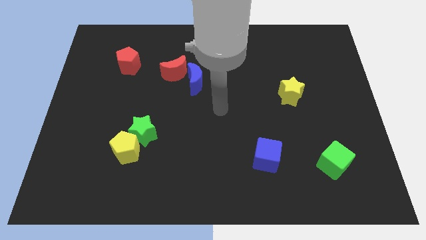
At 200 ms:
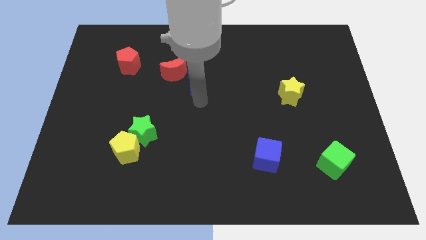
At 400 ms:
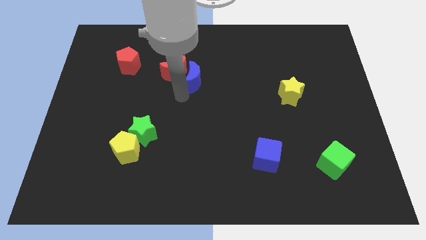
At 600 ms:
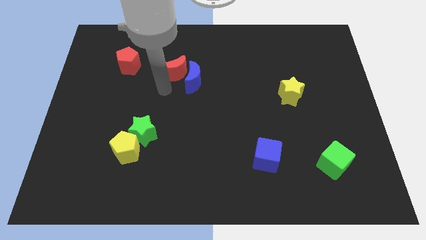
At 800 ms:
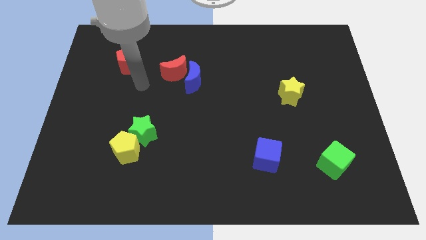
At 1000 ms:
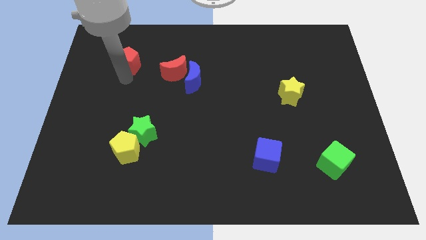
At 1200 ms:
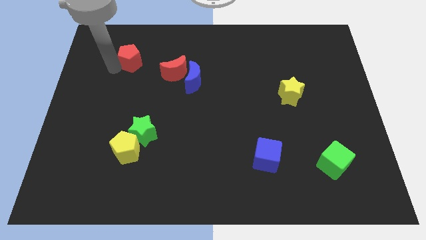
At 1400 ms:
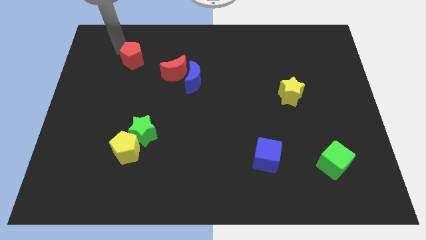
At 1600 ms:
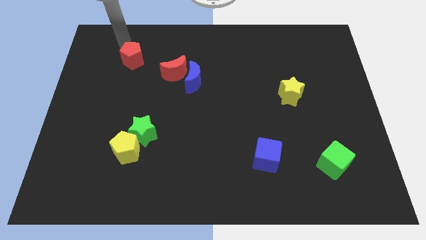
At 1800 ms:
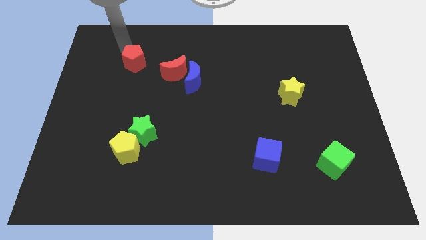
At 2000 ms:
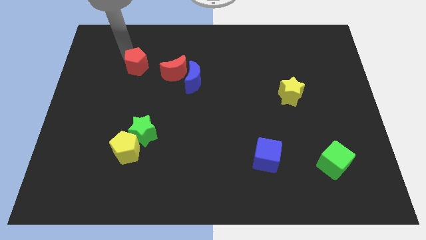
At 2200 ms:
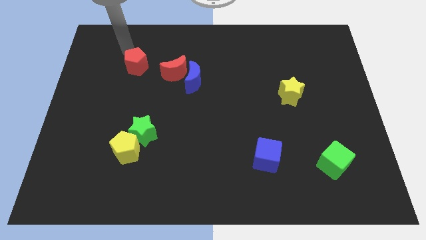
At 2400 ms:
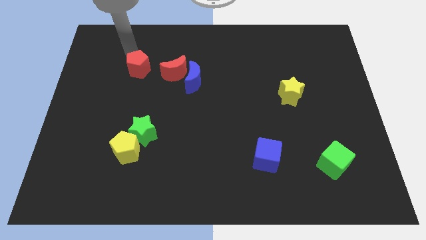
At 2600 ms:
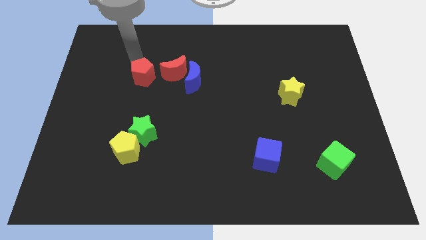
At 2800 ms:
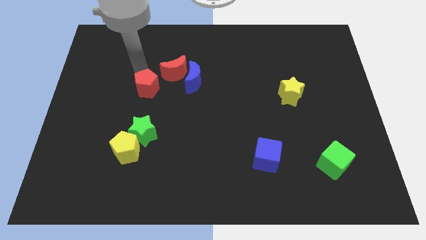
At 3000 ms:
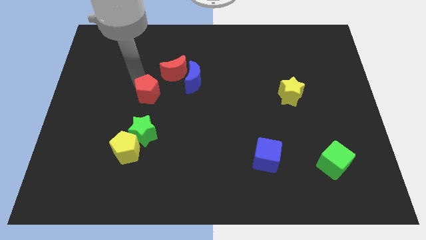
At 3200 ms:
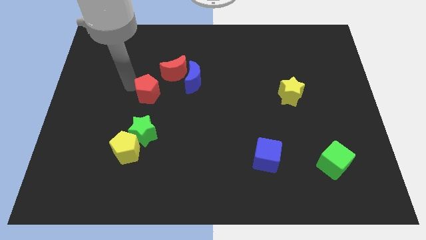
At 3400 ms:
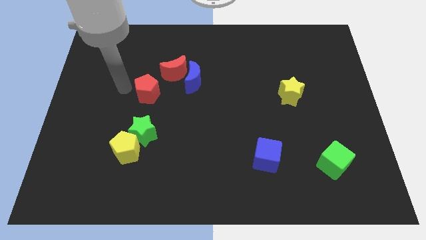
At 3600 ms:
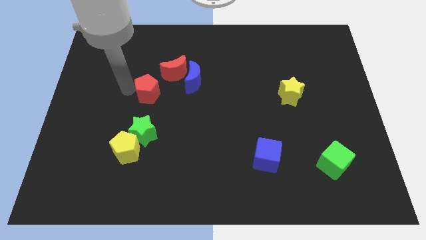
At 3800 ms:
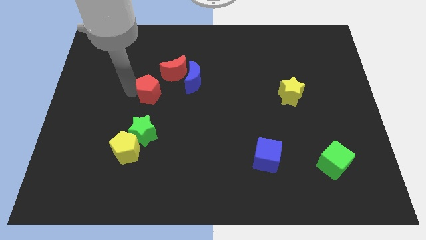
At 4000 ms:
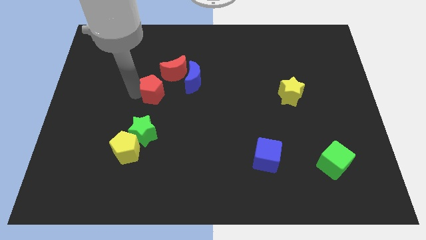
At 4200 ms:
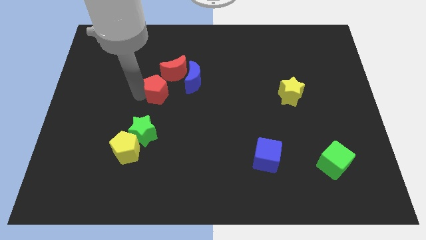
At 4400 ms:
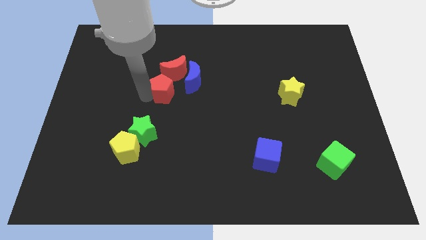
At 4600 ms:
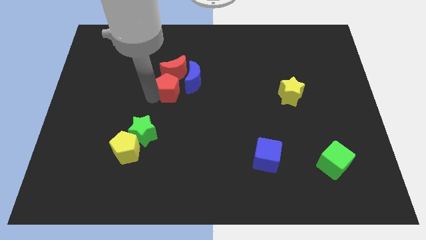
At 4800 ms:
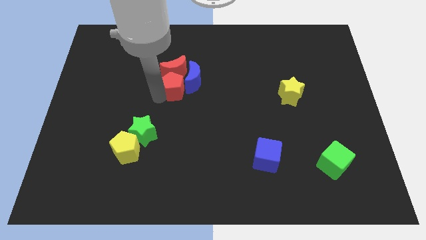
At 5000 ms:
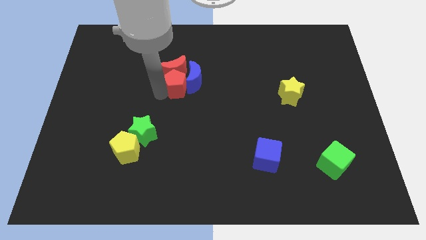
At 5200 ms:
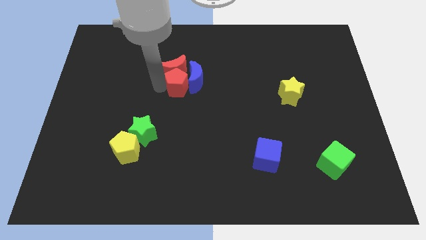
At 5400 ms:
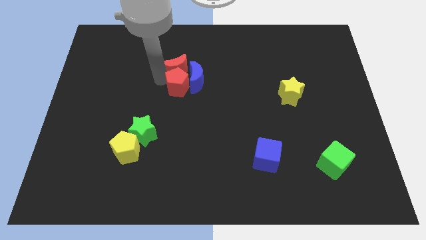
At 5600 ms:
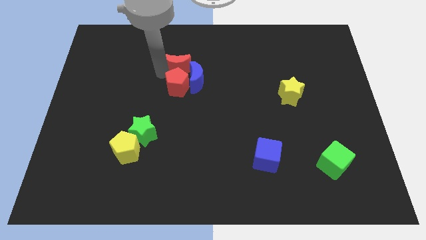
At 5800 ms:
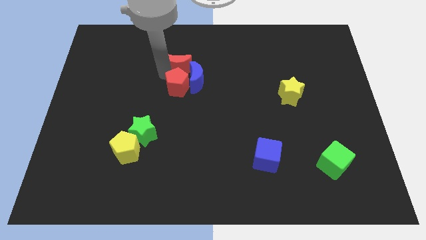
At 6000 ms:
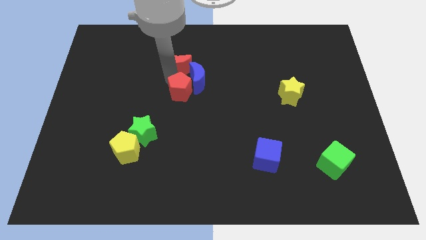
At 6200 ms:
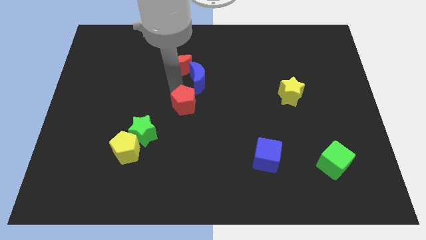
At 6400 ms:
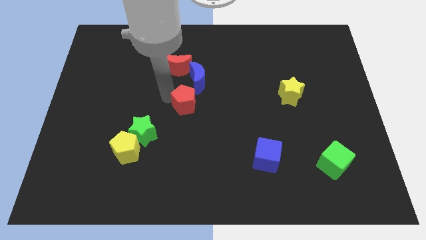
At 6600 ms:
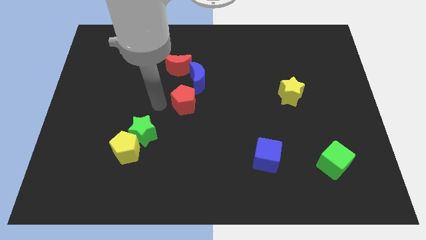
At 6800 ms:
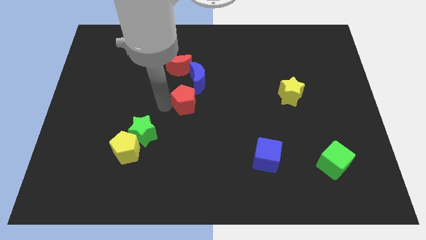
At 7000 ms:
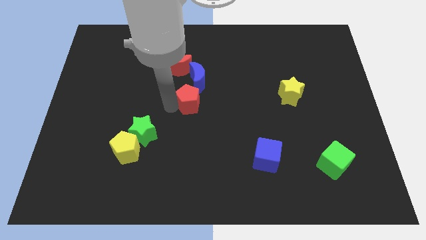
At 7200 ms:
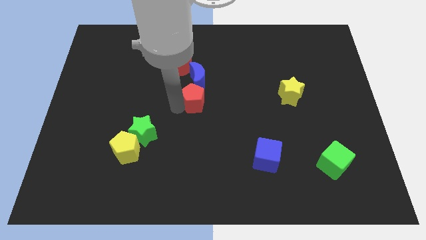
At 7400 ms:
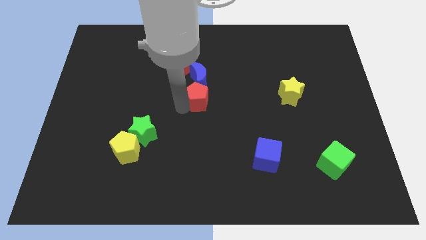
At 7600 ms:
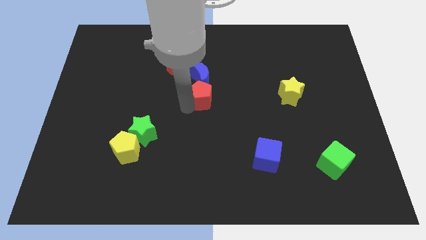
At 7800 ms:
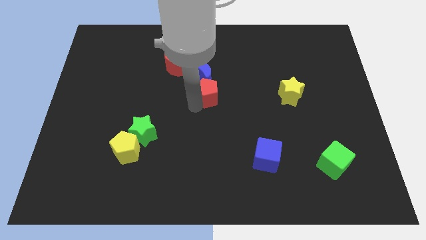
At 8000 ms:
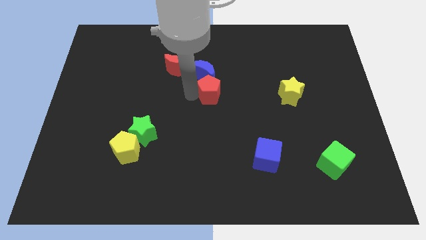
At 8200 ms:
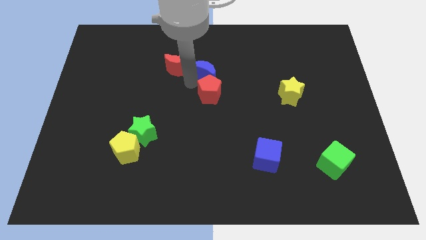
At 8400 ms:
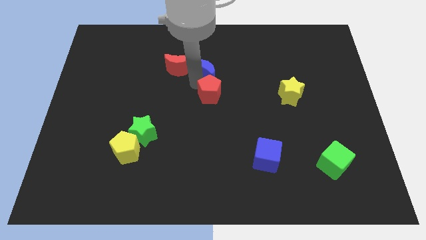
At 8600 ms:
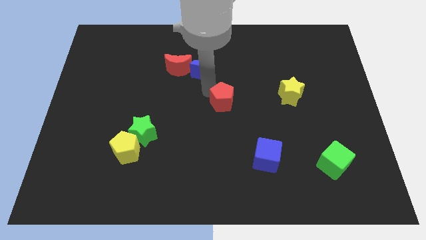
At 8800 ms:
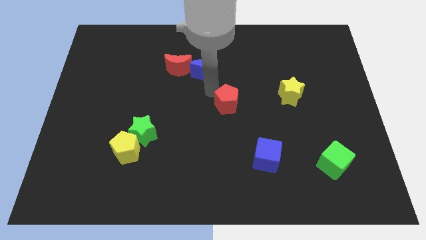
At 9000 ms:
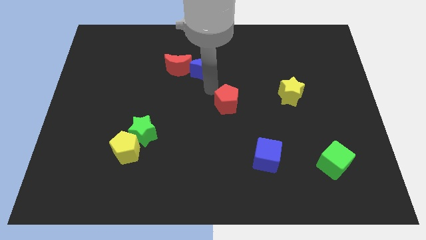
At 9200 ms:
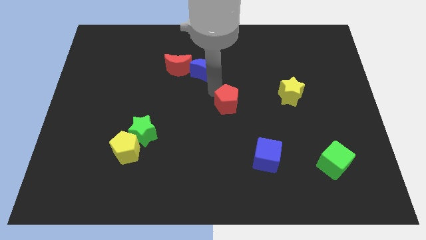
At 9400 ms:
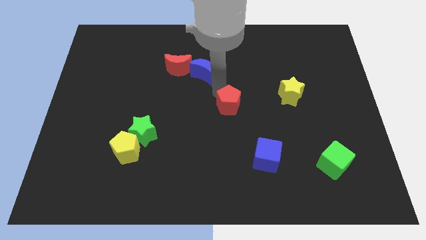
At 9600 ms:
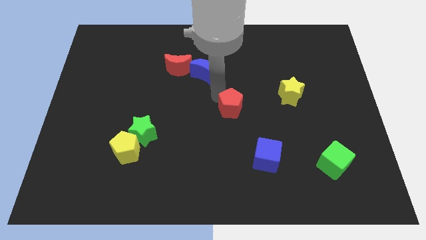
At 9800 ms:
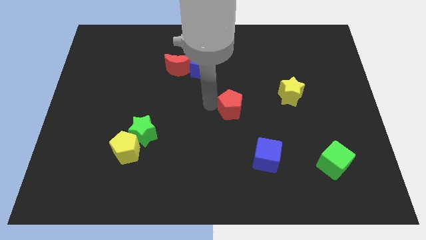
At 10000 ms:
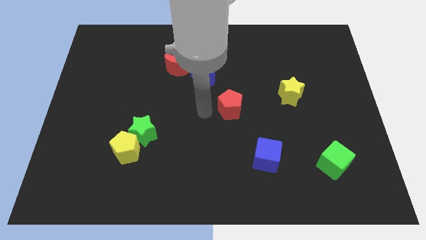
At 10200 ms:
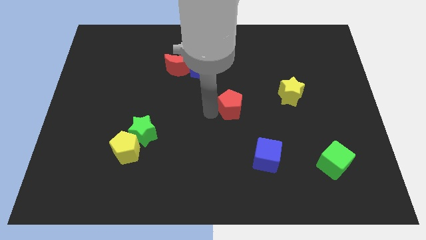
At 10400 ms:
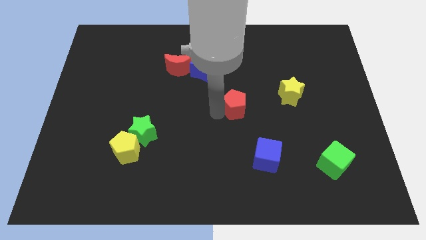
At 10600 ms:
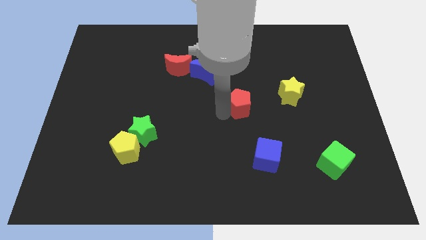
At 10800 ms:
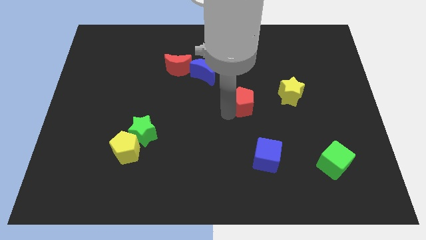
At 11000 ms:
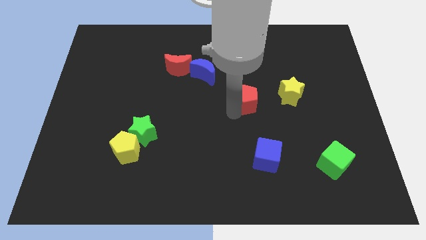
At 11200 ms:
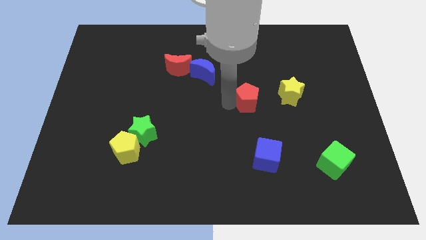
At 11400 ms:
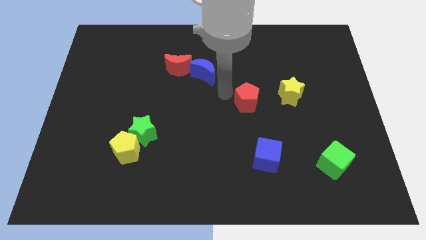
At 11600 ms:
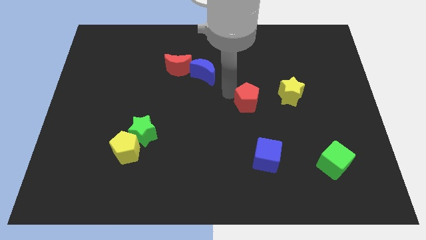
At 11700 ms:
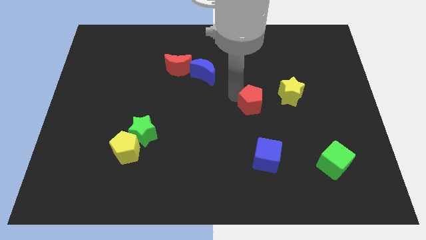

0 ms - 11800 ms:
slide the red pentagon to the bottom left of the yellow star

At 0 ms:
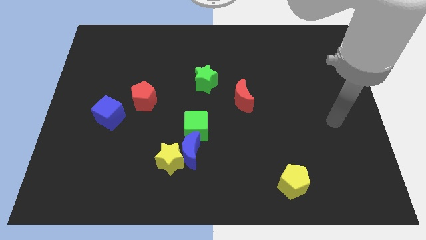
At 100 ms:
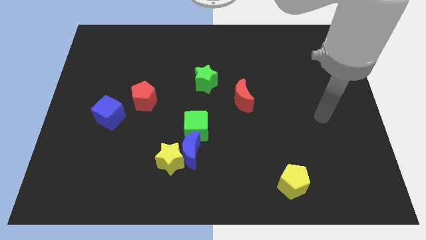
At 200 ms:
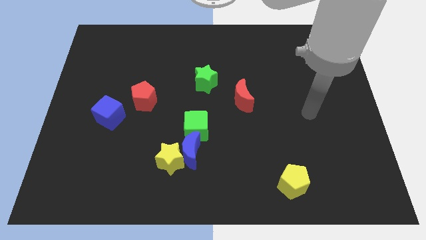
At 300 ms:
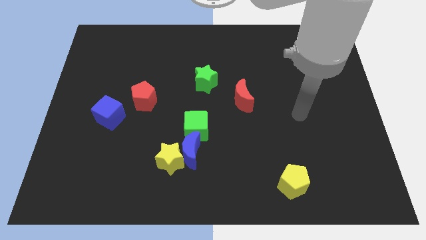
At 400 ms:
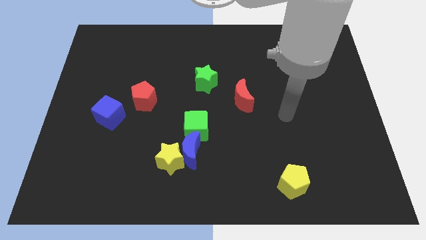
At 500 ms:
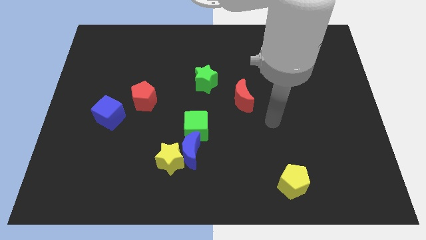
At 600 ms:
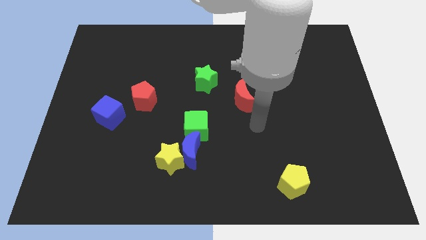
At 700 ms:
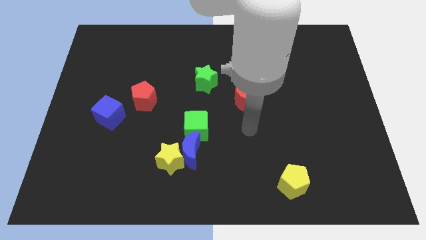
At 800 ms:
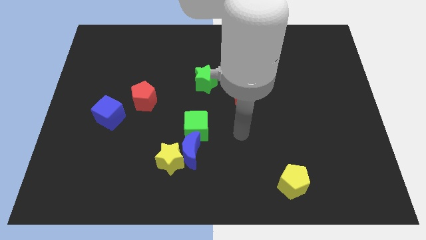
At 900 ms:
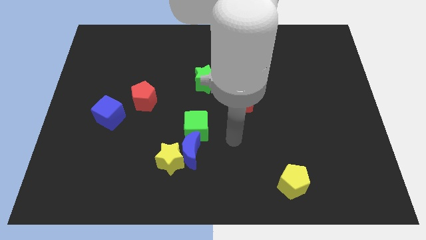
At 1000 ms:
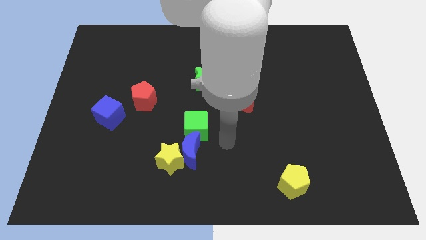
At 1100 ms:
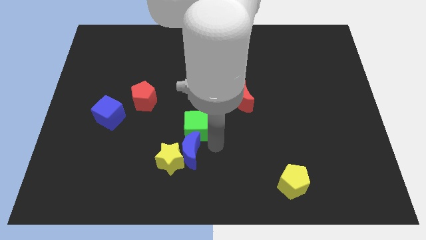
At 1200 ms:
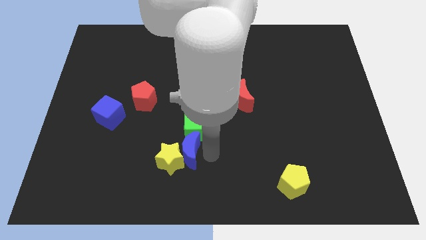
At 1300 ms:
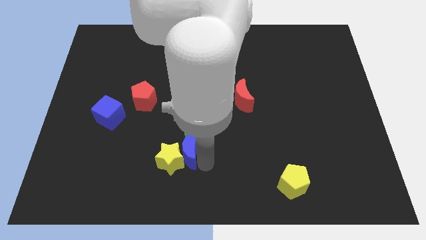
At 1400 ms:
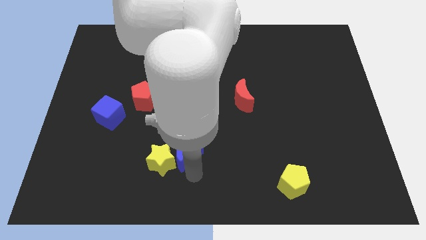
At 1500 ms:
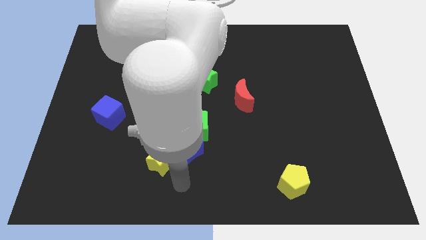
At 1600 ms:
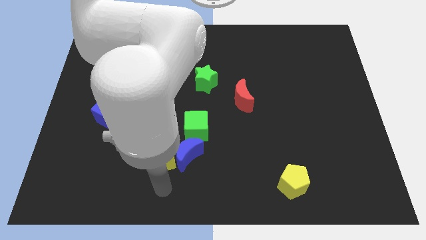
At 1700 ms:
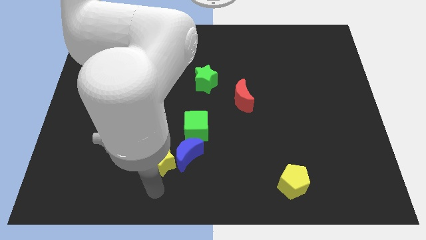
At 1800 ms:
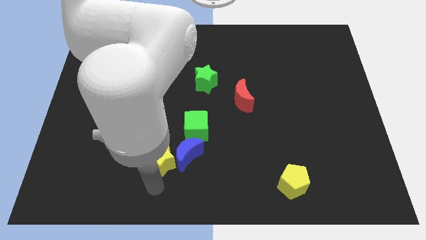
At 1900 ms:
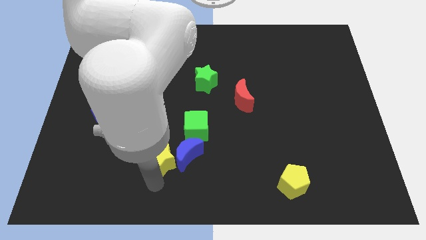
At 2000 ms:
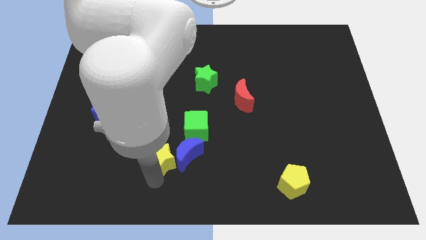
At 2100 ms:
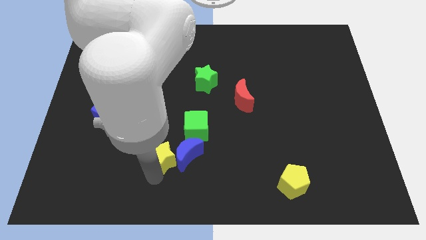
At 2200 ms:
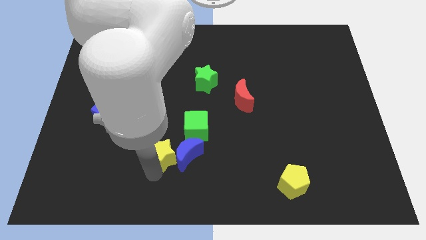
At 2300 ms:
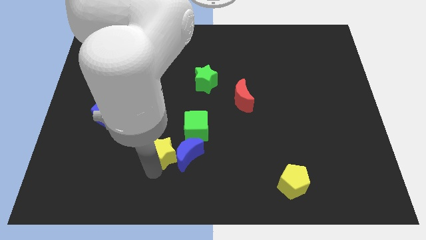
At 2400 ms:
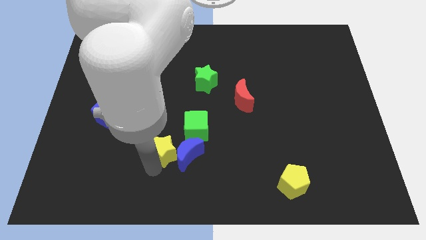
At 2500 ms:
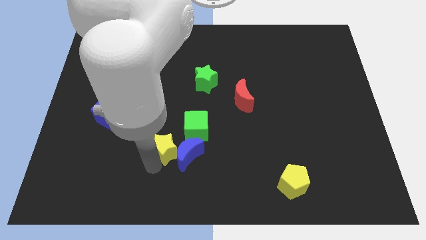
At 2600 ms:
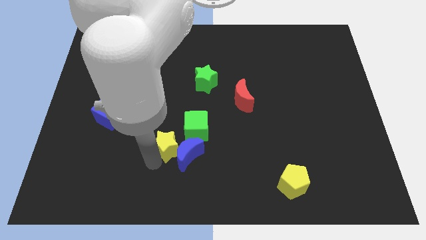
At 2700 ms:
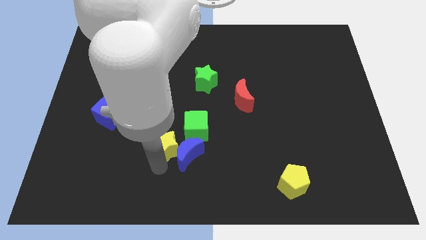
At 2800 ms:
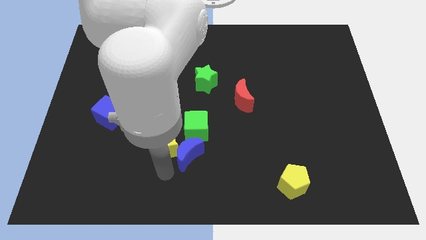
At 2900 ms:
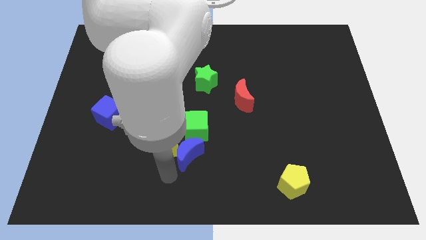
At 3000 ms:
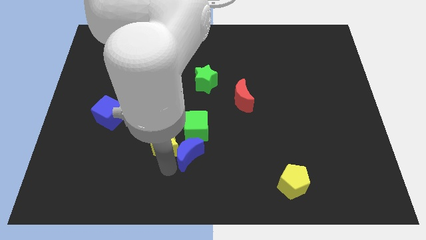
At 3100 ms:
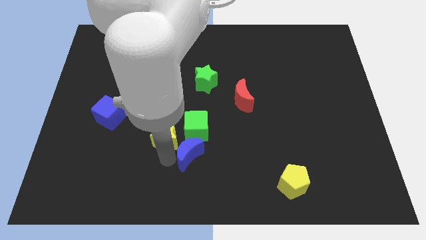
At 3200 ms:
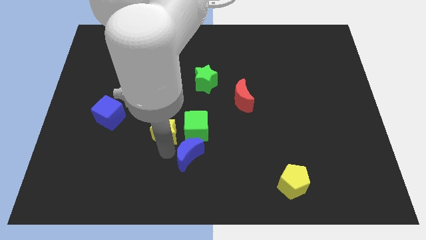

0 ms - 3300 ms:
slide the yellow star to the bottom right of the red pentagon
